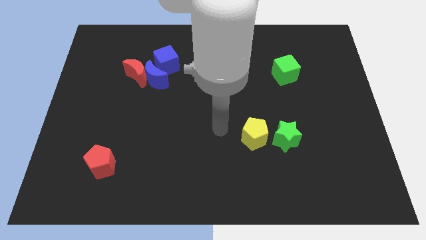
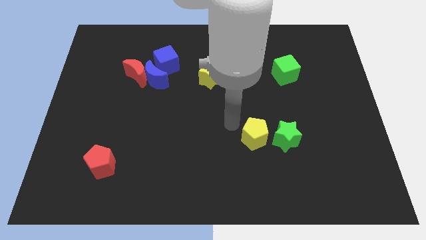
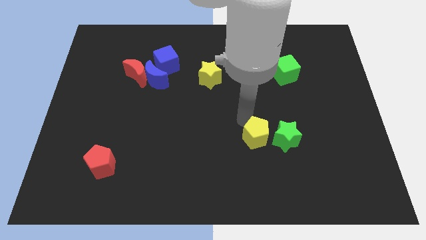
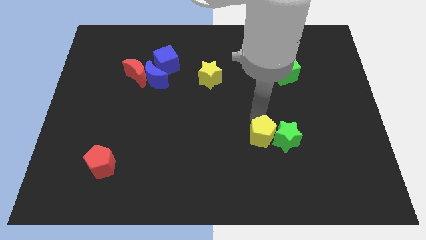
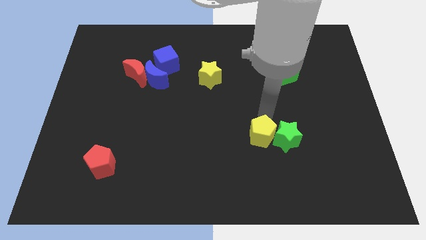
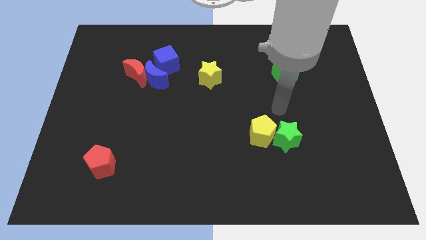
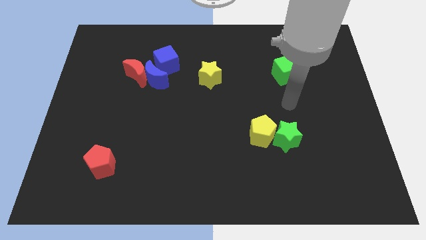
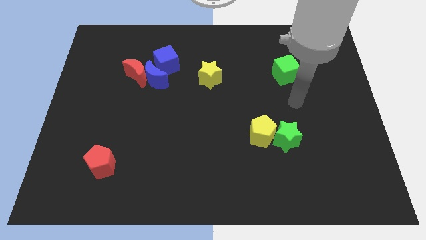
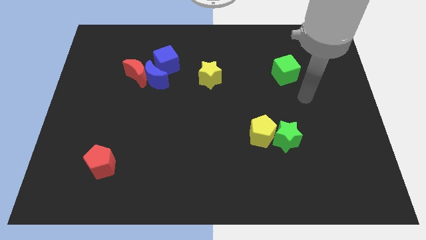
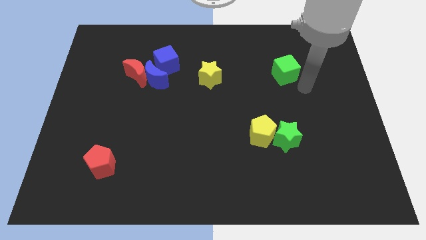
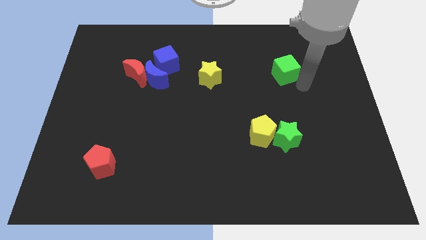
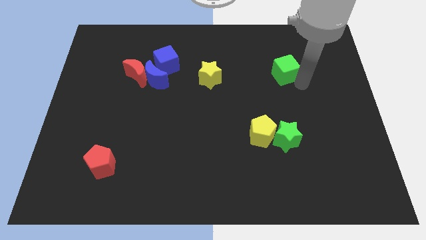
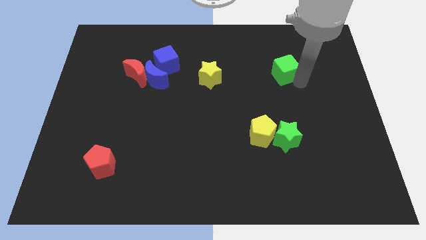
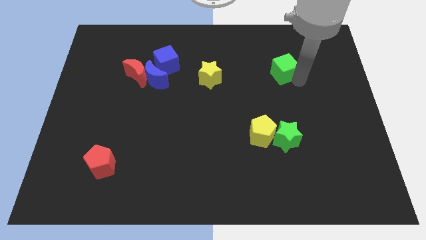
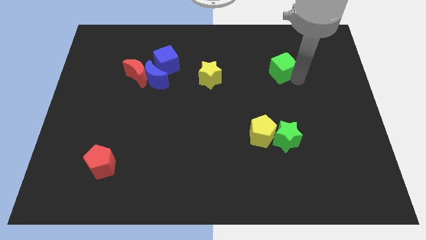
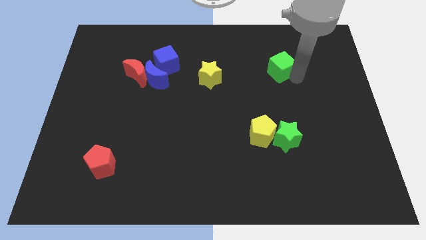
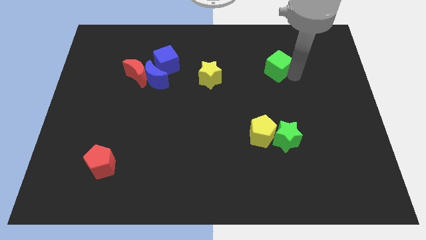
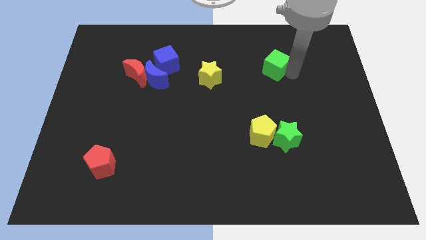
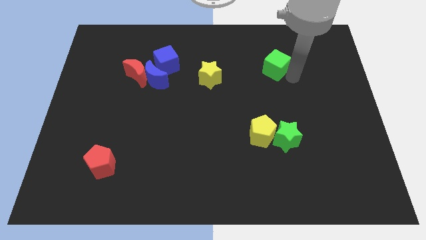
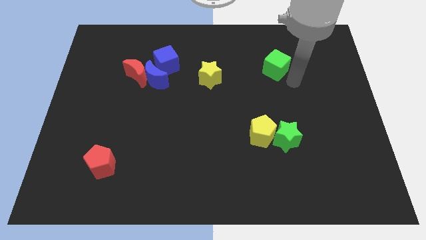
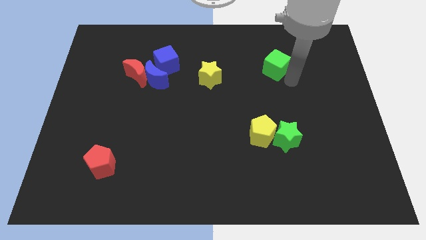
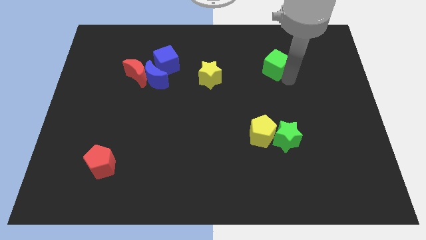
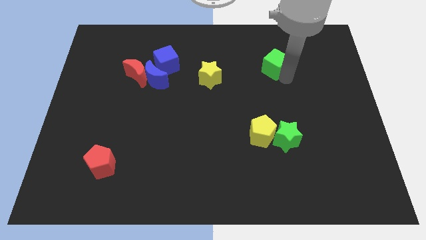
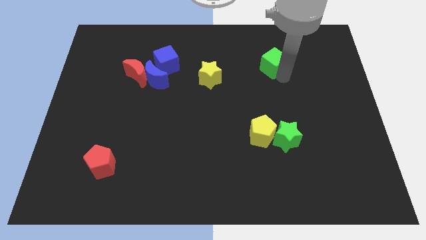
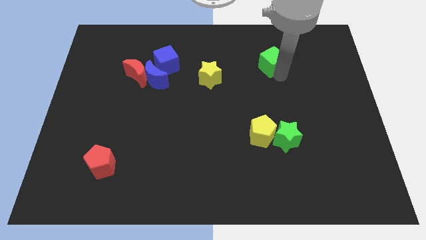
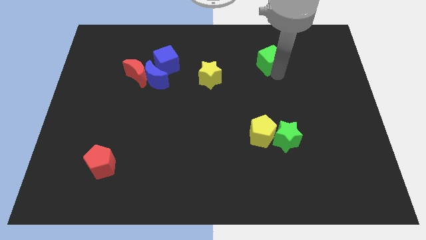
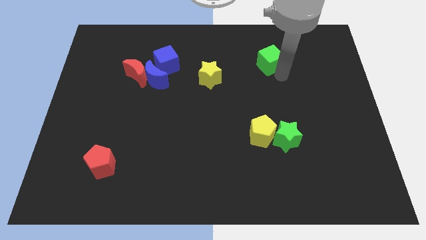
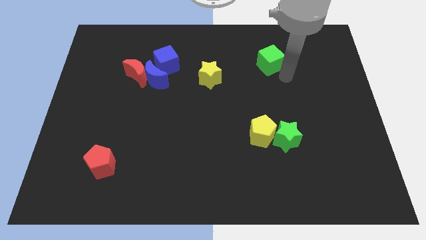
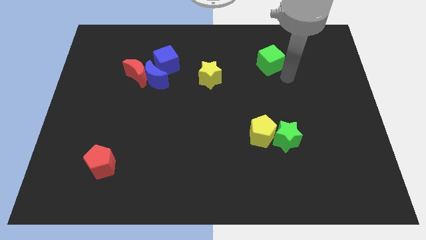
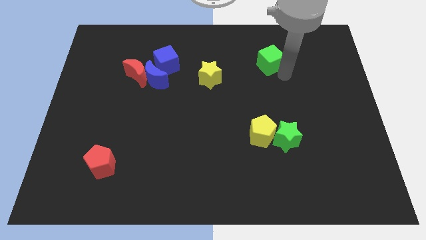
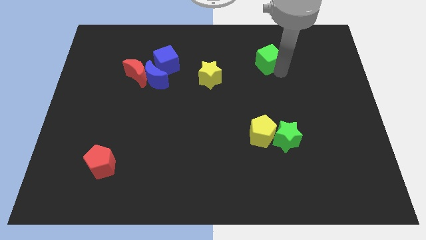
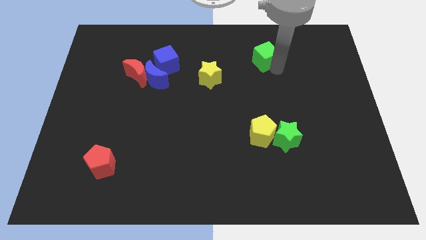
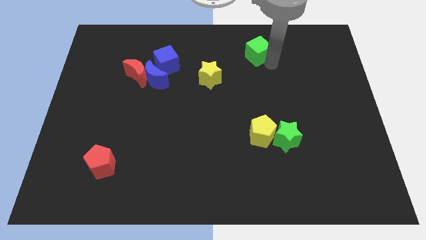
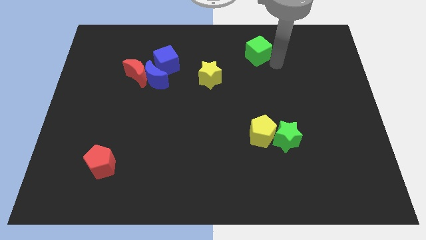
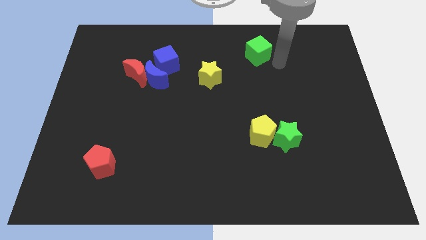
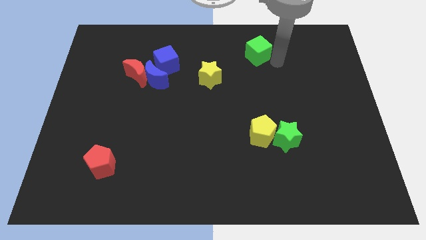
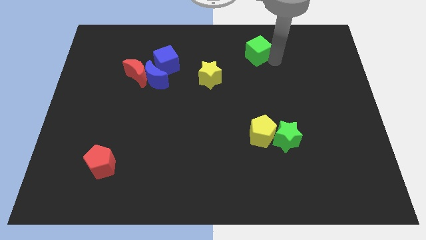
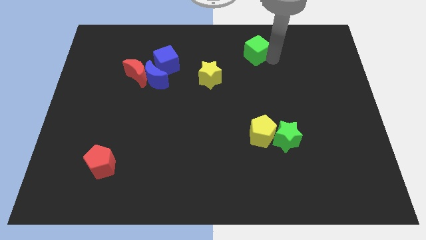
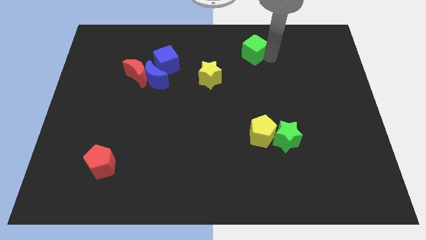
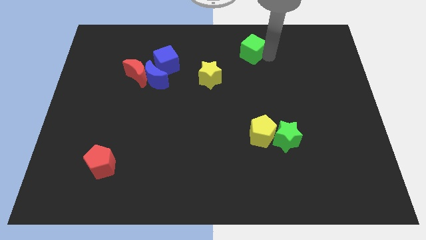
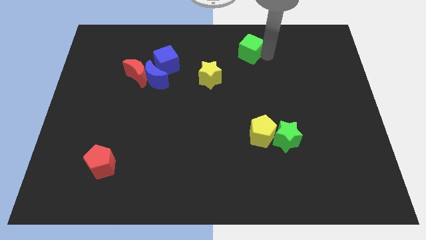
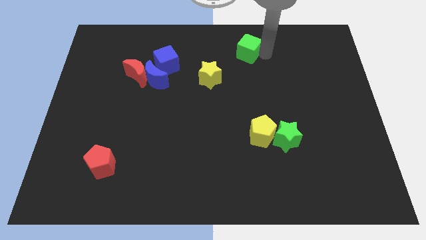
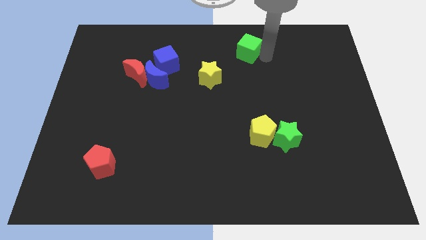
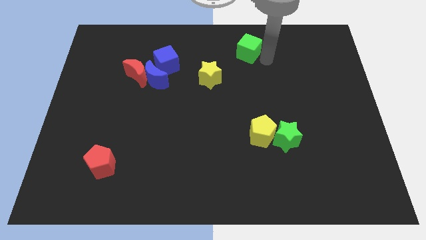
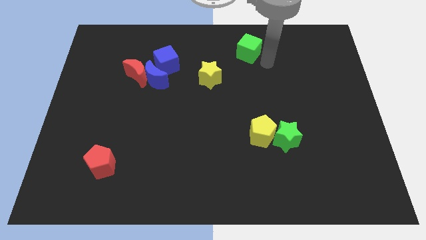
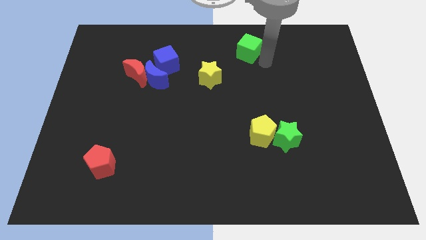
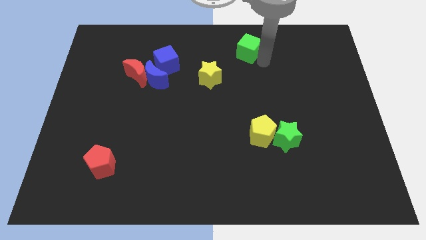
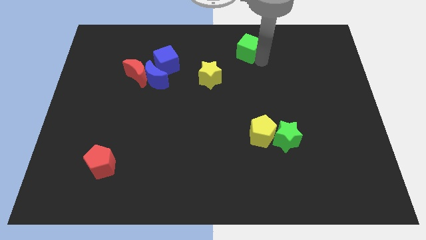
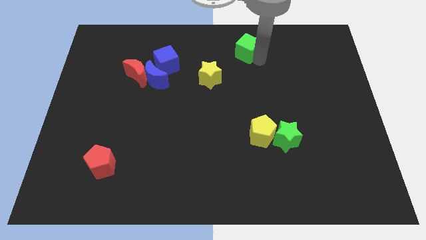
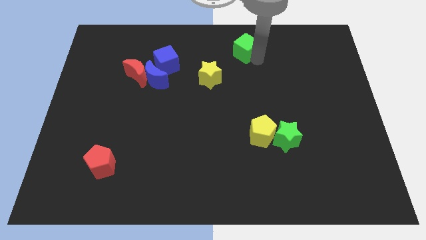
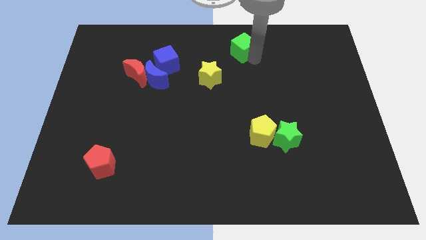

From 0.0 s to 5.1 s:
slide the green cube to the top

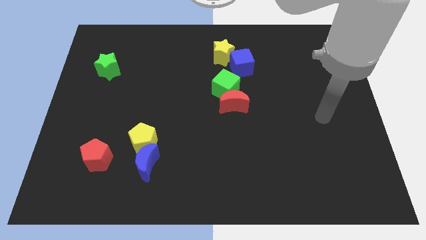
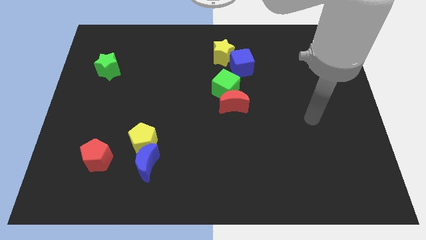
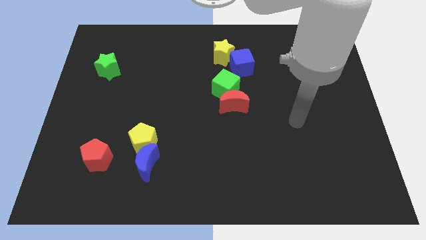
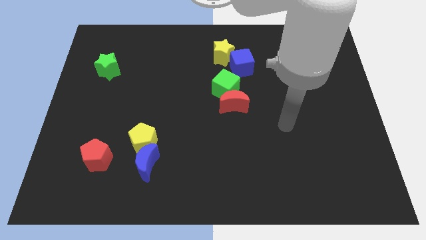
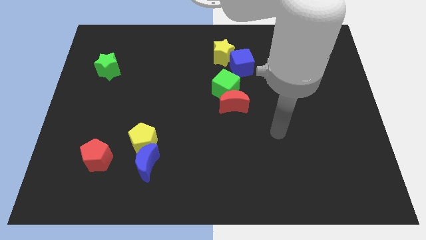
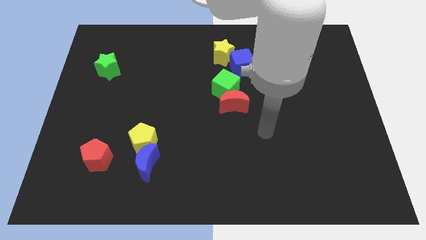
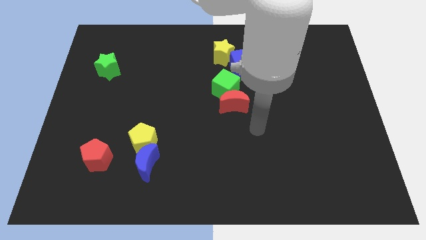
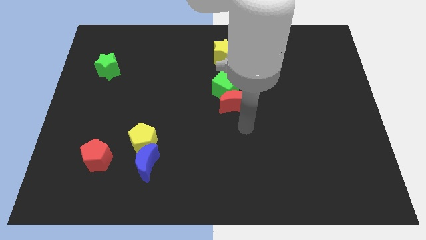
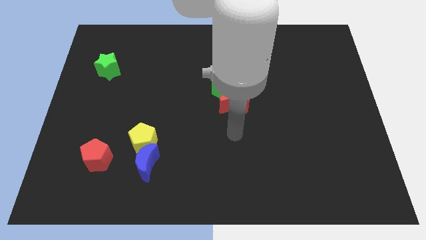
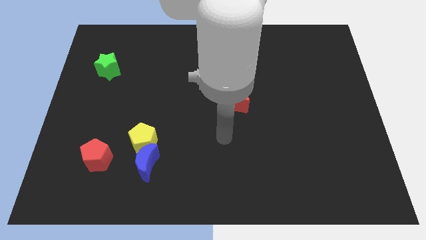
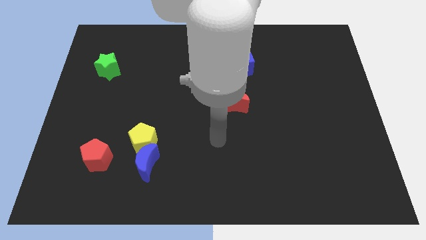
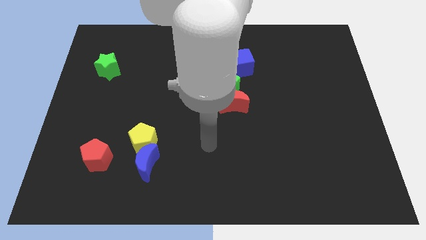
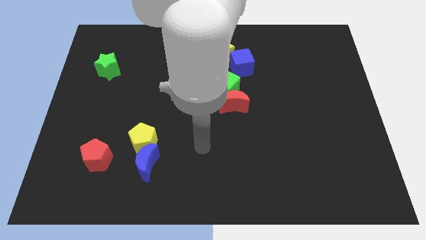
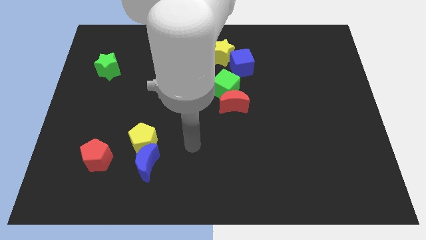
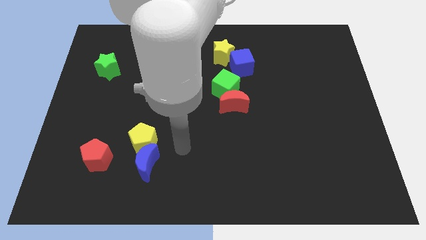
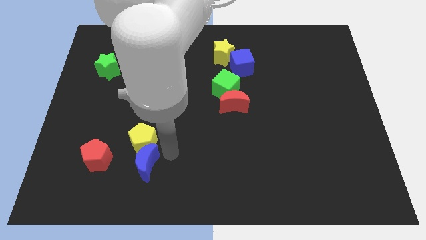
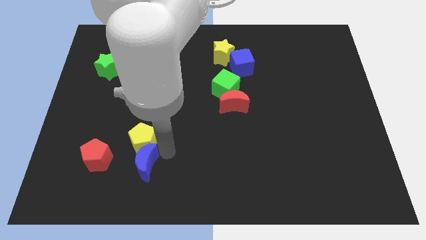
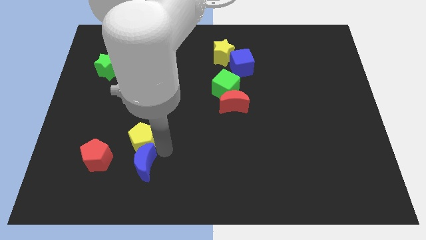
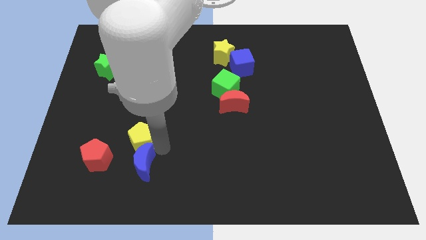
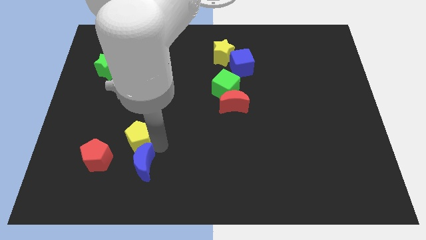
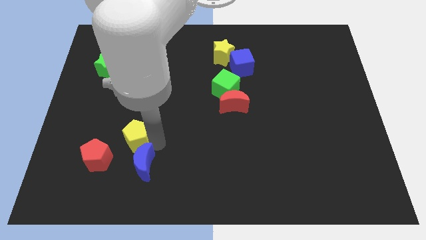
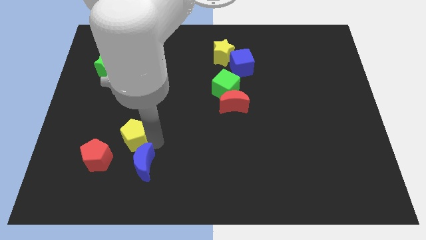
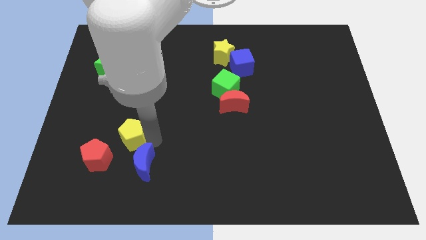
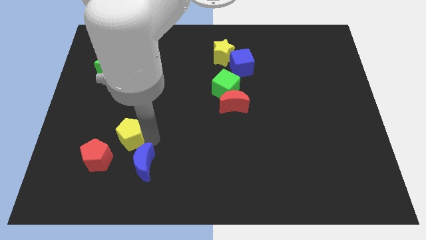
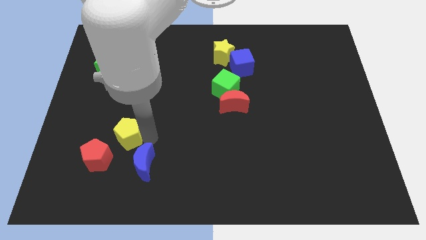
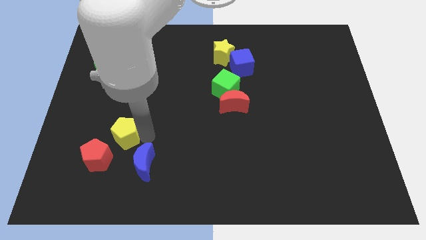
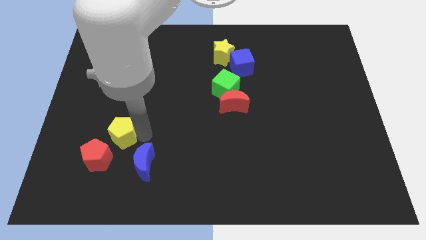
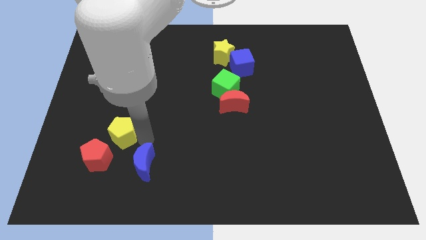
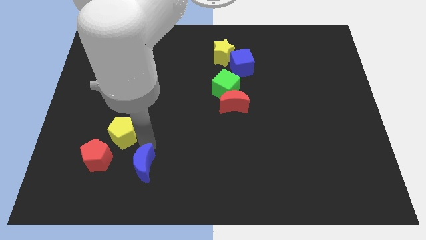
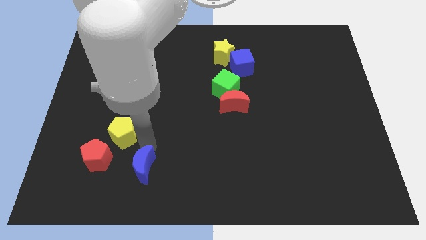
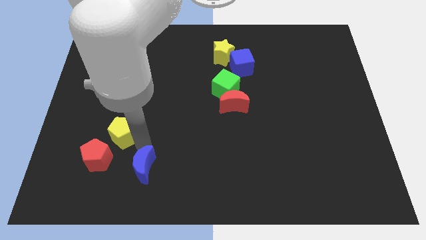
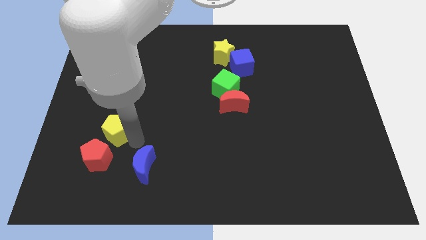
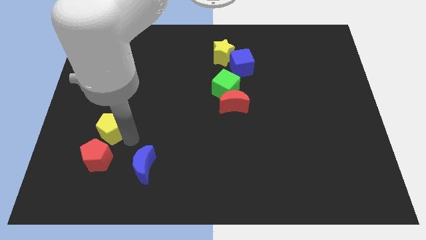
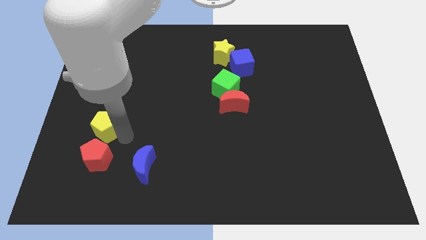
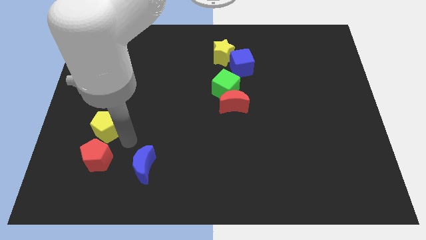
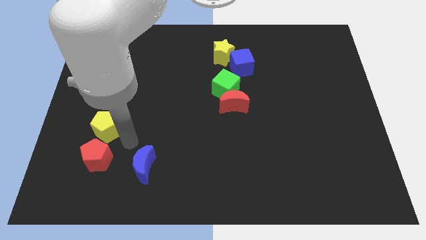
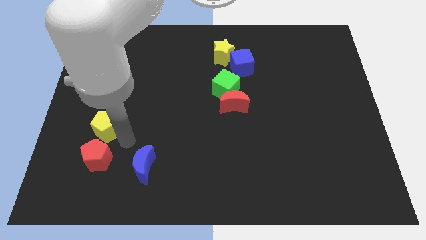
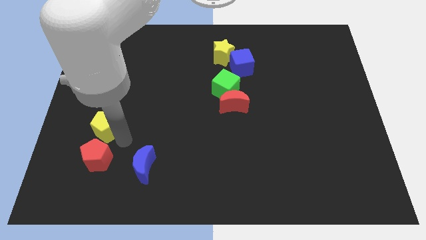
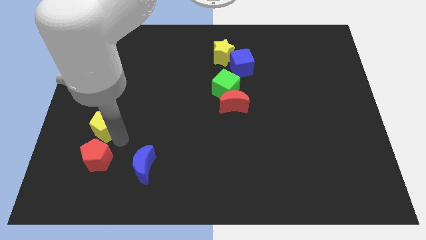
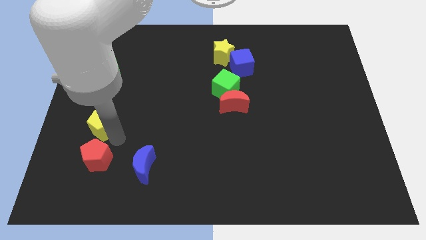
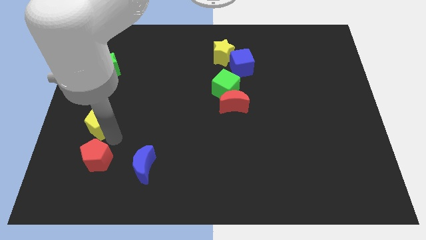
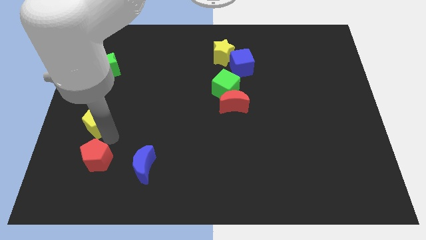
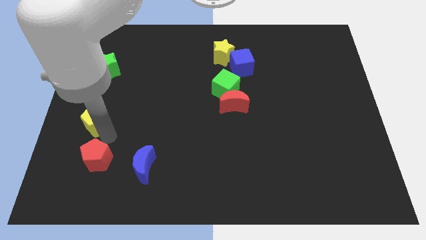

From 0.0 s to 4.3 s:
slide the yellow pentagon to the center left
